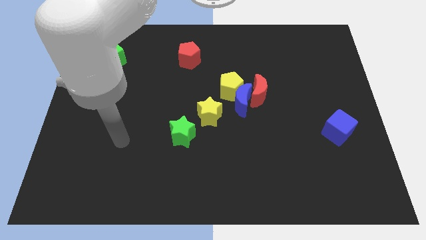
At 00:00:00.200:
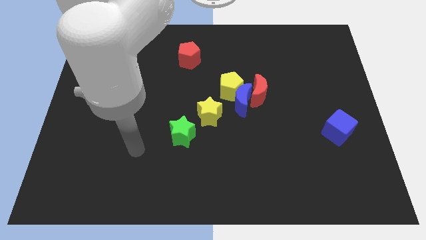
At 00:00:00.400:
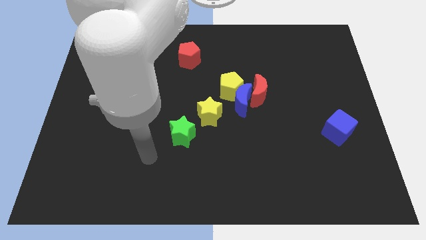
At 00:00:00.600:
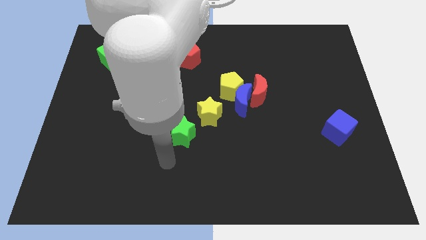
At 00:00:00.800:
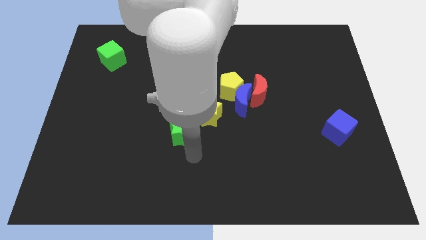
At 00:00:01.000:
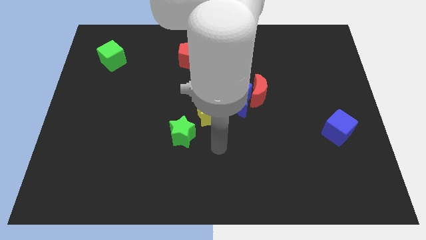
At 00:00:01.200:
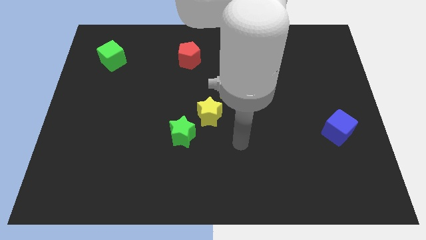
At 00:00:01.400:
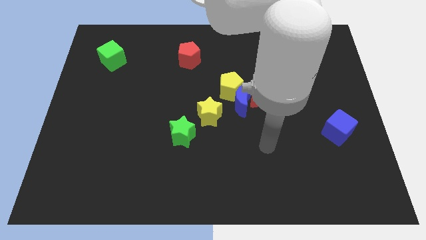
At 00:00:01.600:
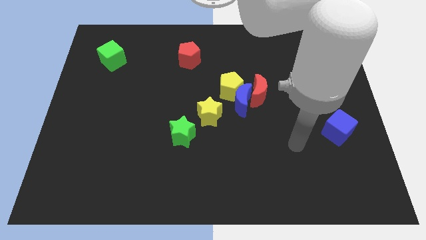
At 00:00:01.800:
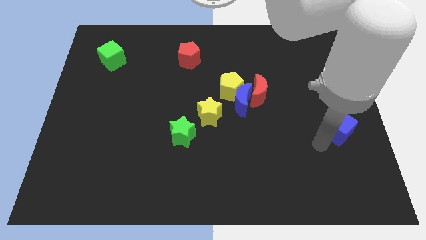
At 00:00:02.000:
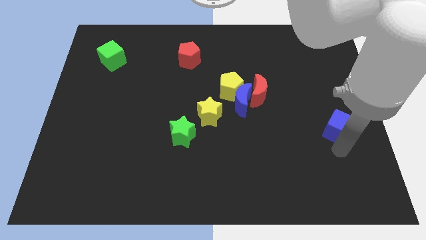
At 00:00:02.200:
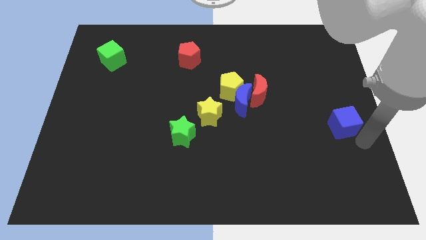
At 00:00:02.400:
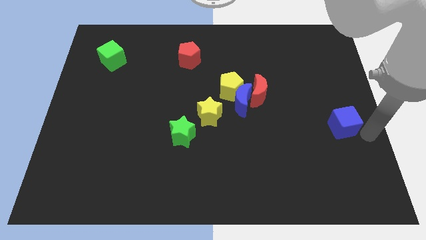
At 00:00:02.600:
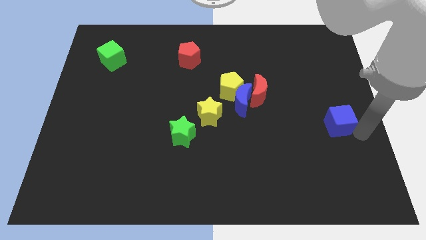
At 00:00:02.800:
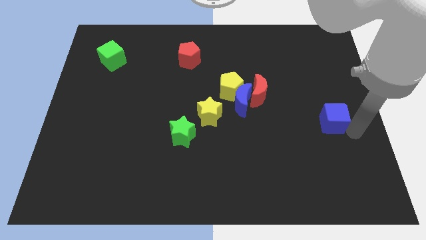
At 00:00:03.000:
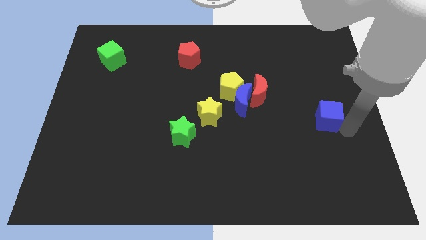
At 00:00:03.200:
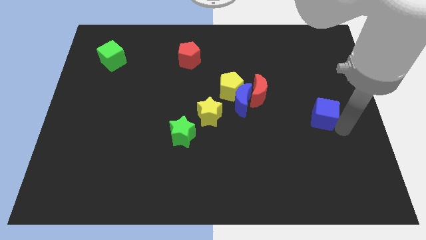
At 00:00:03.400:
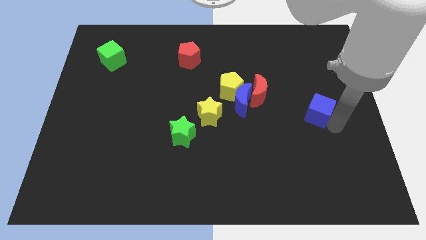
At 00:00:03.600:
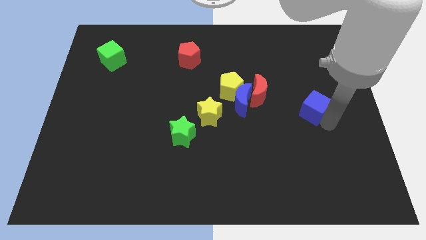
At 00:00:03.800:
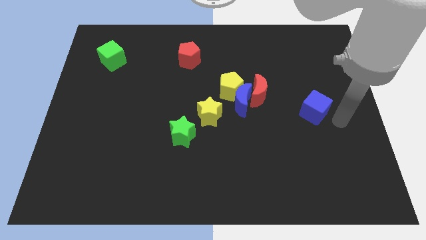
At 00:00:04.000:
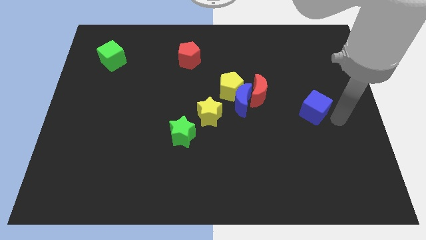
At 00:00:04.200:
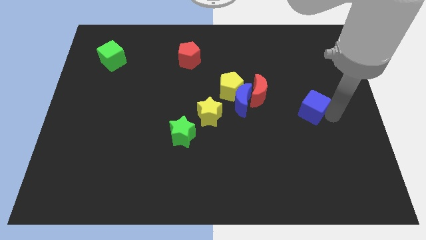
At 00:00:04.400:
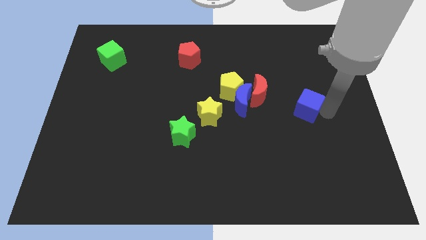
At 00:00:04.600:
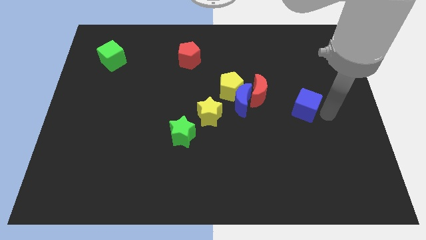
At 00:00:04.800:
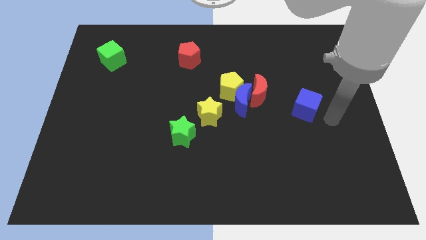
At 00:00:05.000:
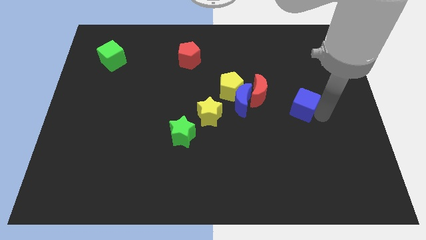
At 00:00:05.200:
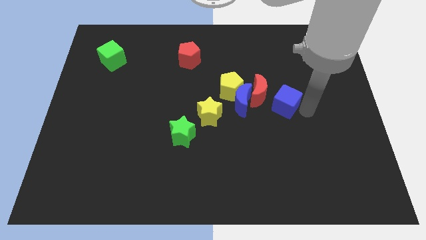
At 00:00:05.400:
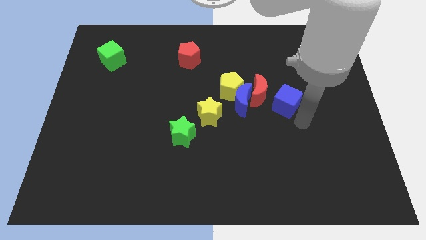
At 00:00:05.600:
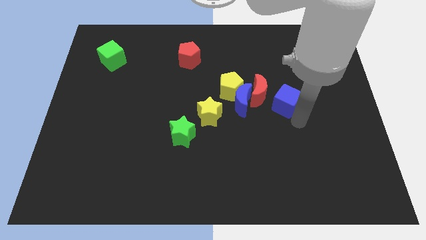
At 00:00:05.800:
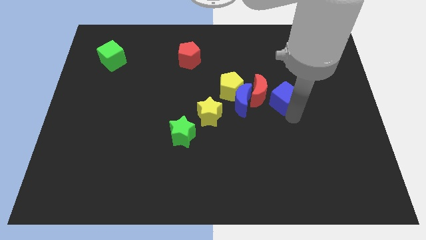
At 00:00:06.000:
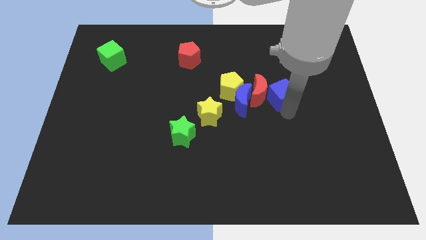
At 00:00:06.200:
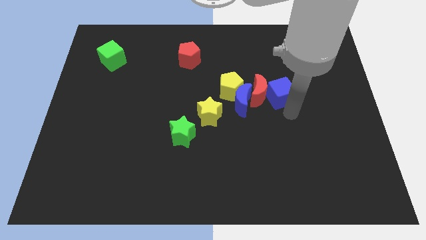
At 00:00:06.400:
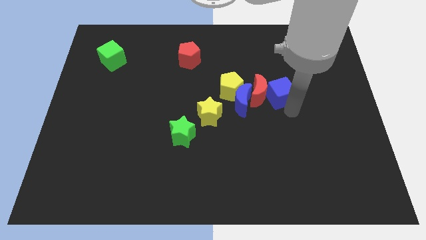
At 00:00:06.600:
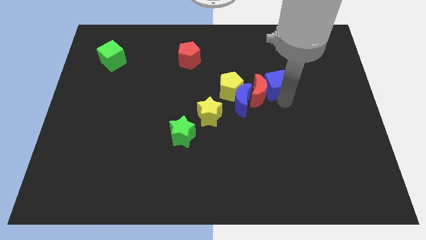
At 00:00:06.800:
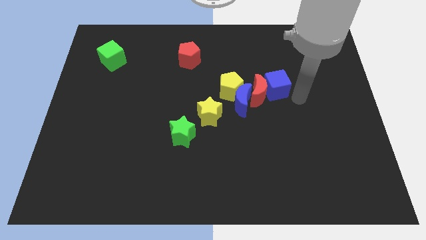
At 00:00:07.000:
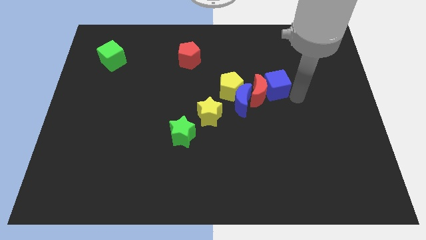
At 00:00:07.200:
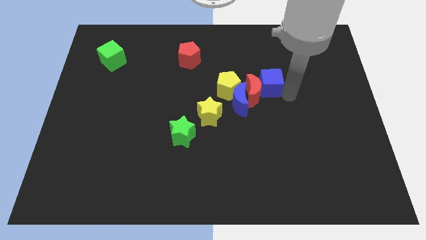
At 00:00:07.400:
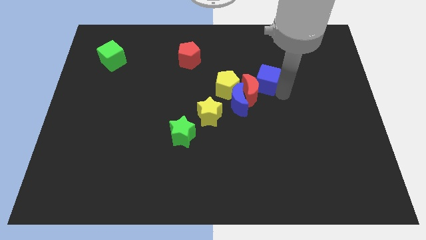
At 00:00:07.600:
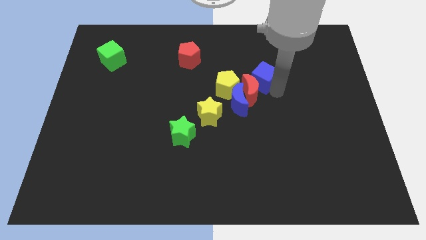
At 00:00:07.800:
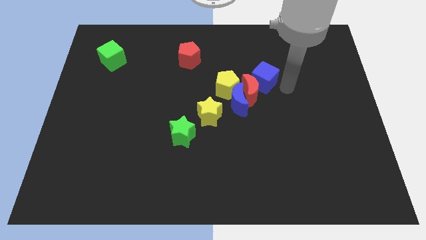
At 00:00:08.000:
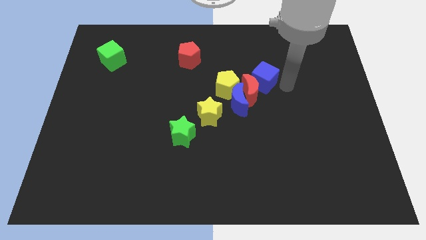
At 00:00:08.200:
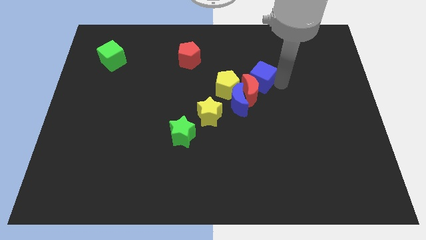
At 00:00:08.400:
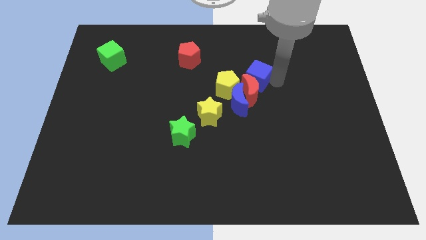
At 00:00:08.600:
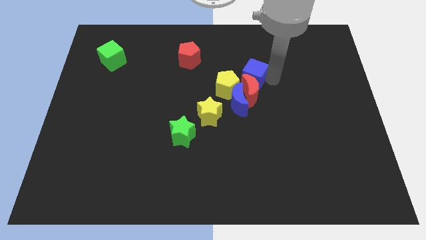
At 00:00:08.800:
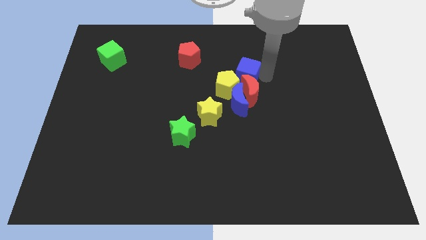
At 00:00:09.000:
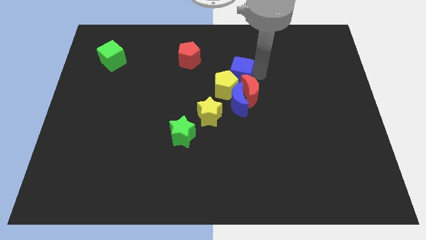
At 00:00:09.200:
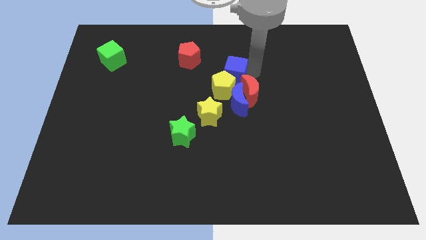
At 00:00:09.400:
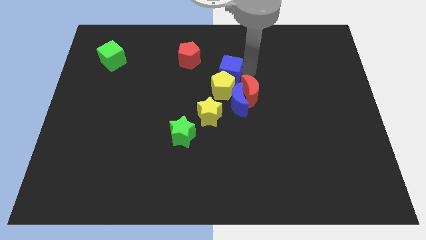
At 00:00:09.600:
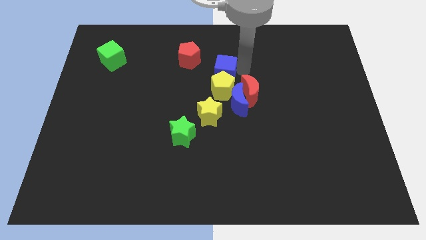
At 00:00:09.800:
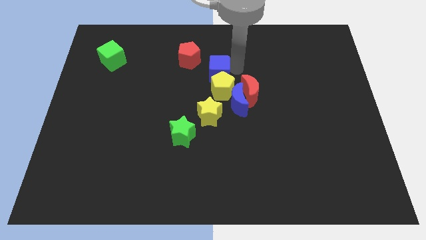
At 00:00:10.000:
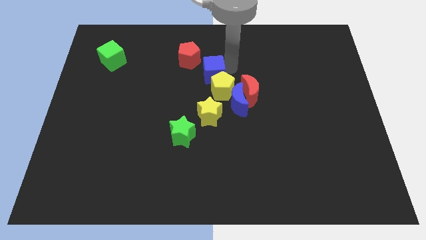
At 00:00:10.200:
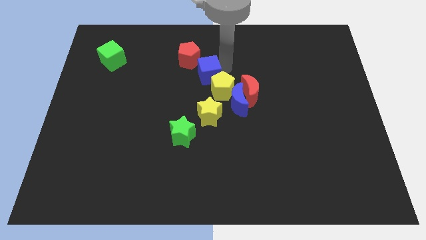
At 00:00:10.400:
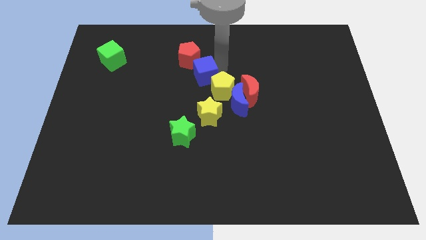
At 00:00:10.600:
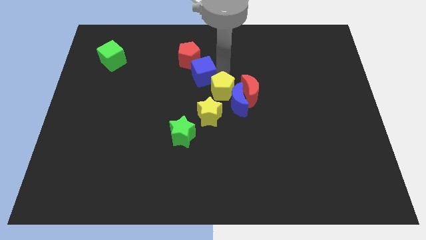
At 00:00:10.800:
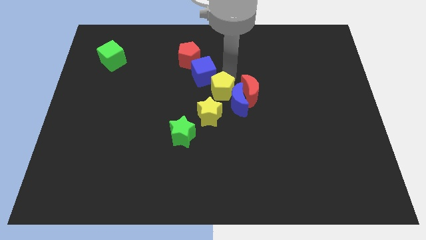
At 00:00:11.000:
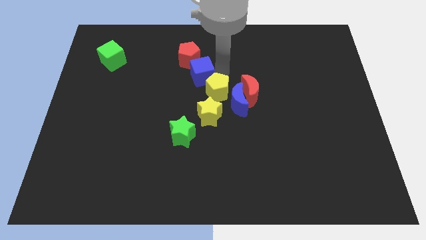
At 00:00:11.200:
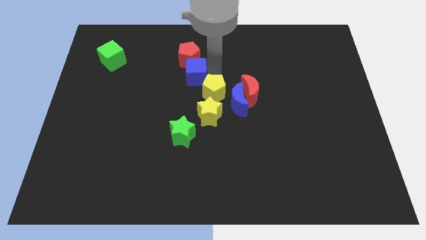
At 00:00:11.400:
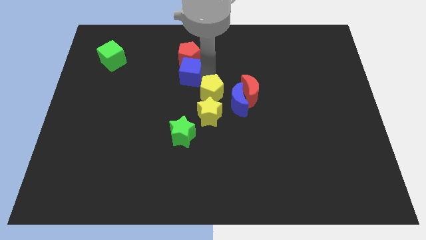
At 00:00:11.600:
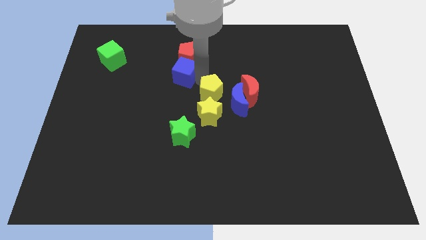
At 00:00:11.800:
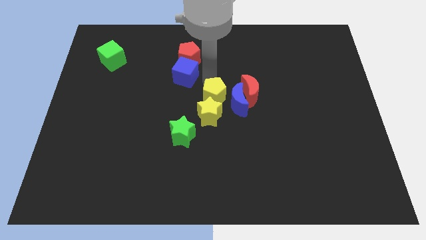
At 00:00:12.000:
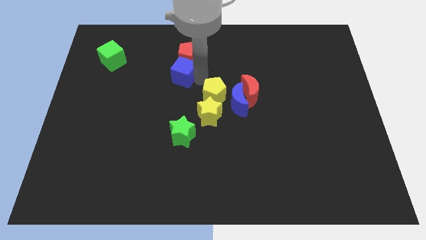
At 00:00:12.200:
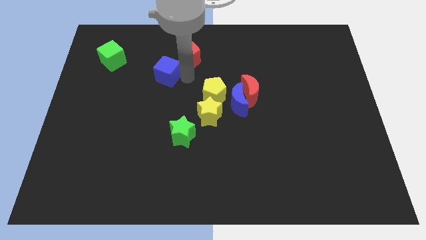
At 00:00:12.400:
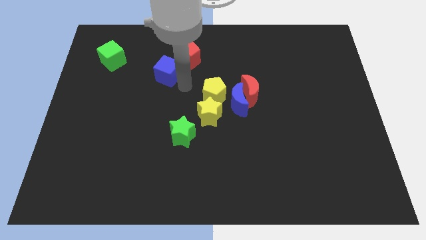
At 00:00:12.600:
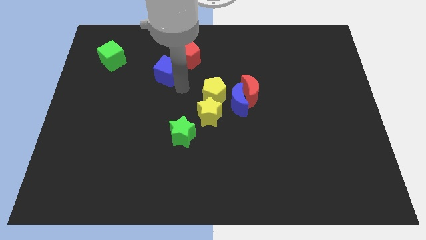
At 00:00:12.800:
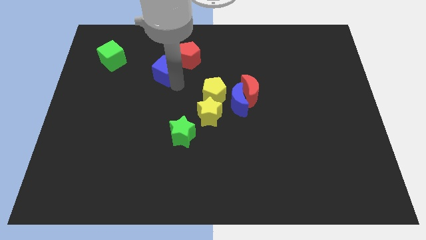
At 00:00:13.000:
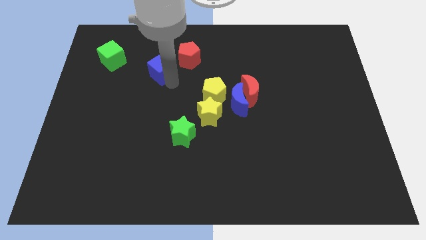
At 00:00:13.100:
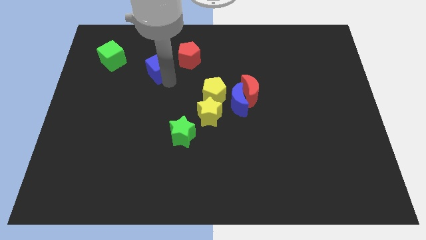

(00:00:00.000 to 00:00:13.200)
move the blue cube to the right of the green cube

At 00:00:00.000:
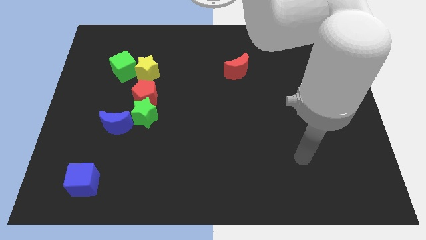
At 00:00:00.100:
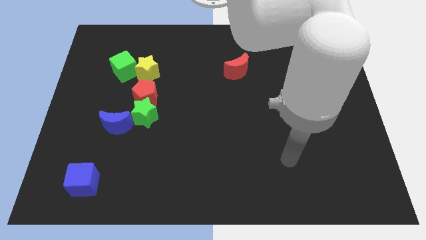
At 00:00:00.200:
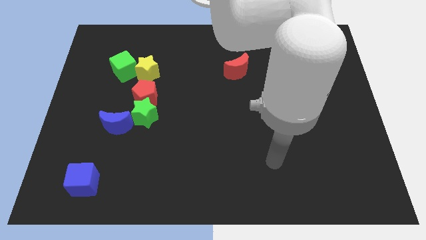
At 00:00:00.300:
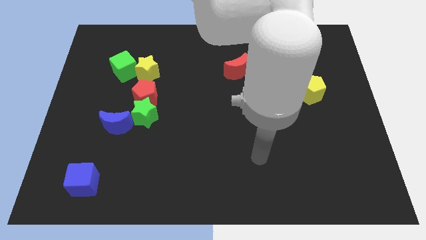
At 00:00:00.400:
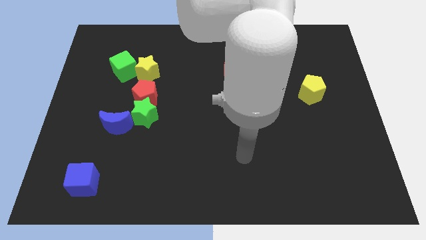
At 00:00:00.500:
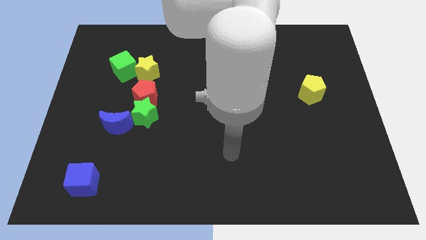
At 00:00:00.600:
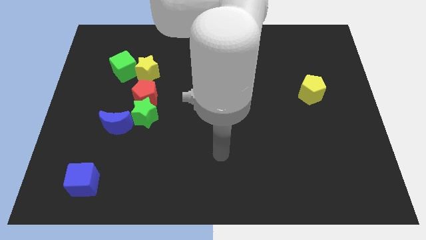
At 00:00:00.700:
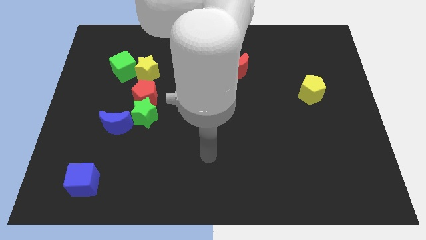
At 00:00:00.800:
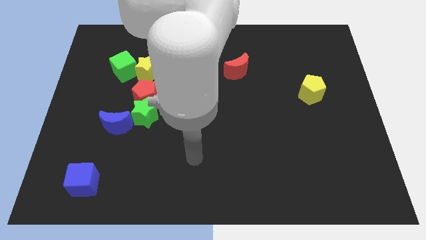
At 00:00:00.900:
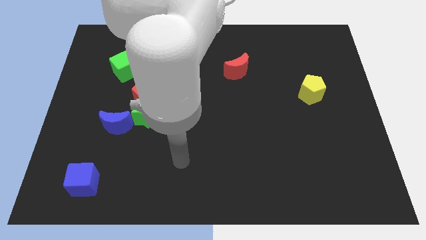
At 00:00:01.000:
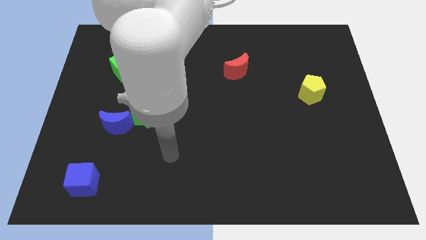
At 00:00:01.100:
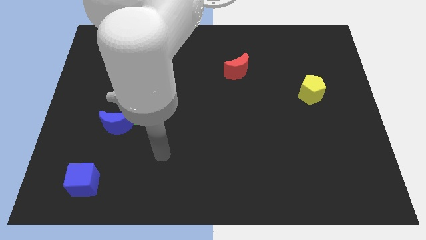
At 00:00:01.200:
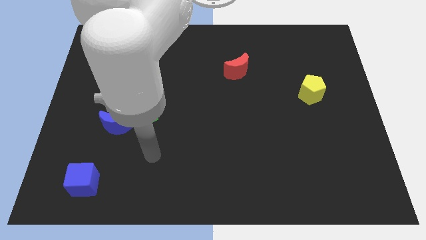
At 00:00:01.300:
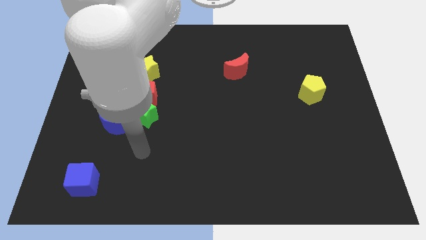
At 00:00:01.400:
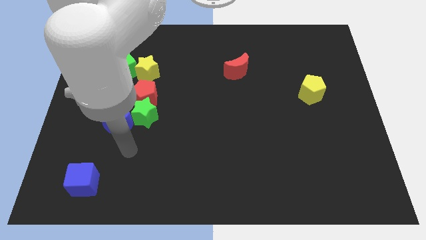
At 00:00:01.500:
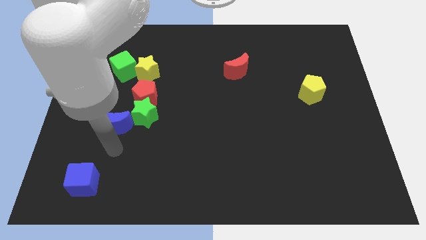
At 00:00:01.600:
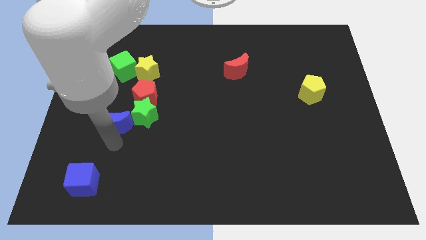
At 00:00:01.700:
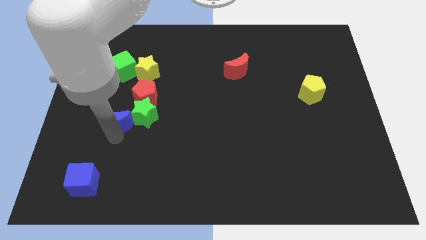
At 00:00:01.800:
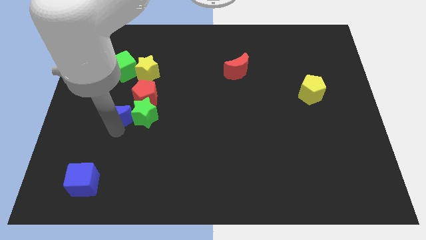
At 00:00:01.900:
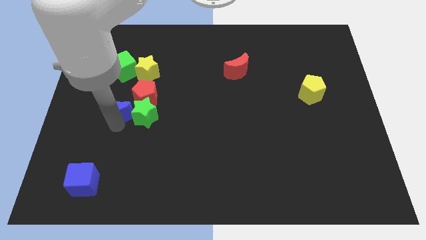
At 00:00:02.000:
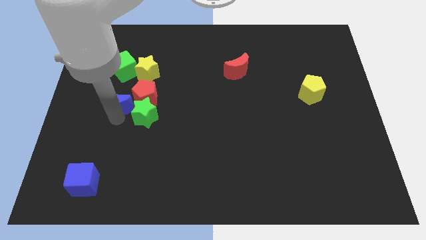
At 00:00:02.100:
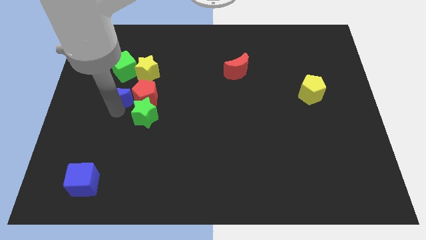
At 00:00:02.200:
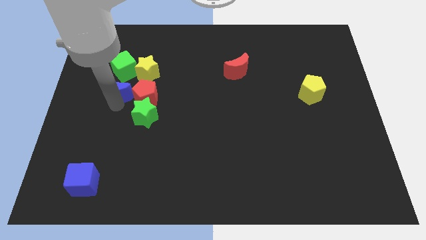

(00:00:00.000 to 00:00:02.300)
push the blue moon diagonally up and to the left of the red pentagon
